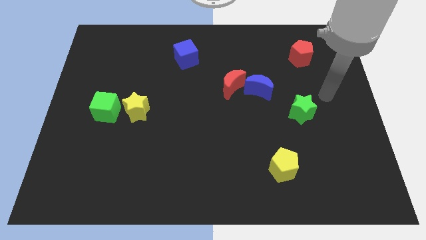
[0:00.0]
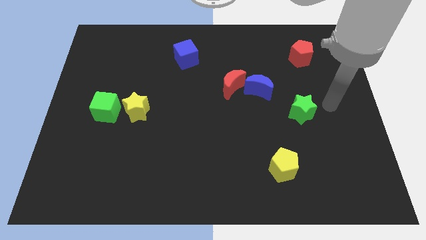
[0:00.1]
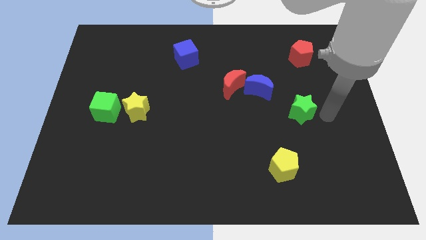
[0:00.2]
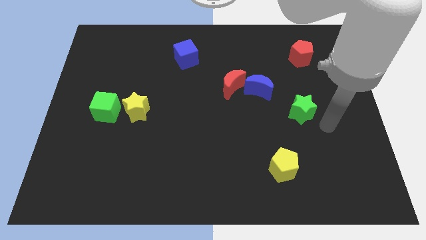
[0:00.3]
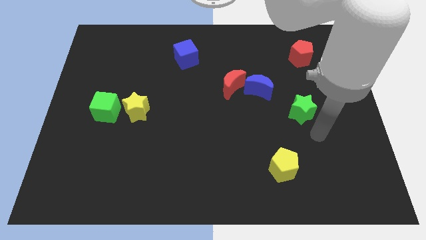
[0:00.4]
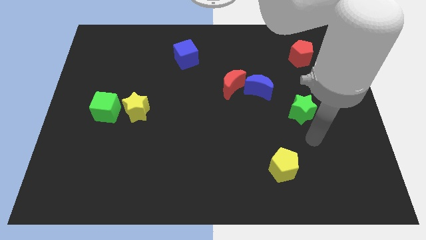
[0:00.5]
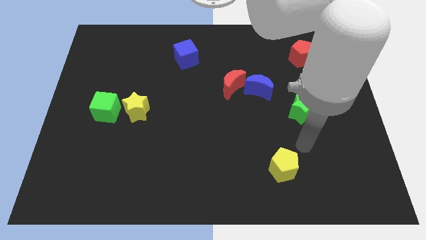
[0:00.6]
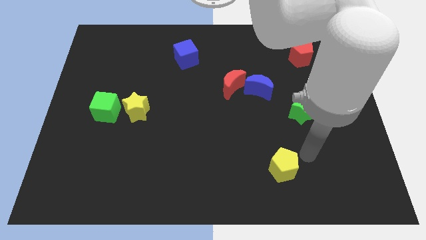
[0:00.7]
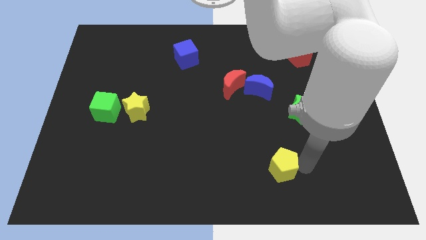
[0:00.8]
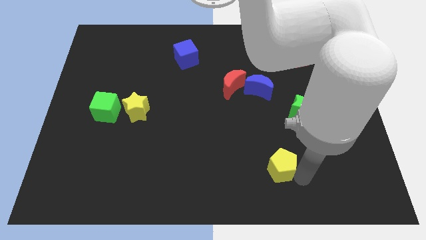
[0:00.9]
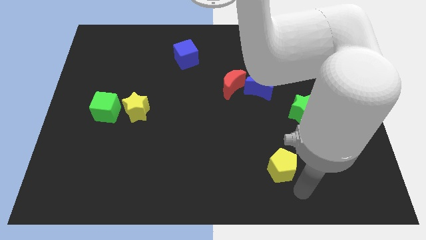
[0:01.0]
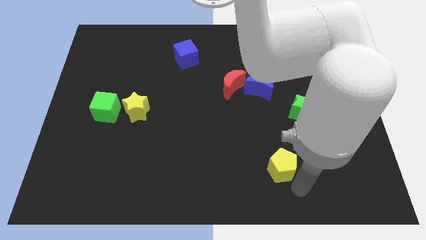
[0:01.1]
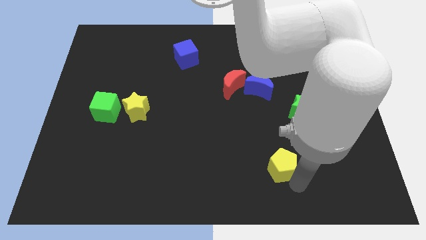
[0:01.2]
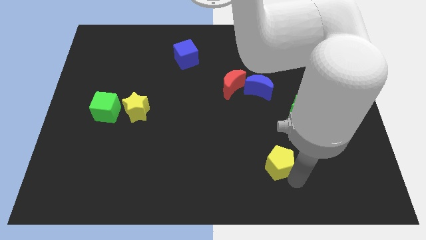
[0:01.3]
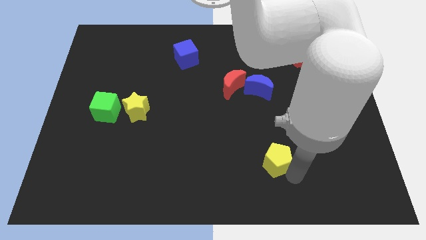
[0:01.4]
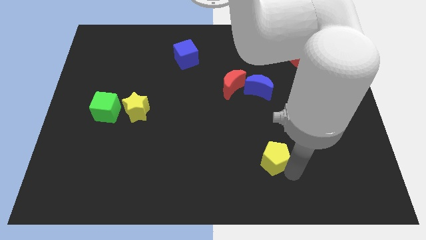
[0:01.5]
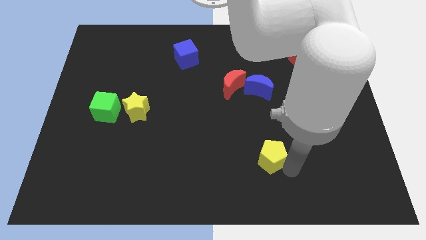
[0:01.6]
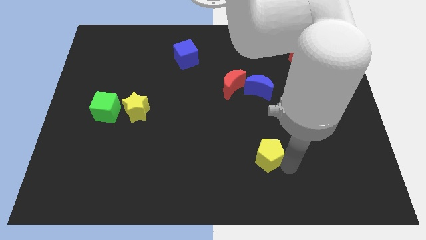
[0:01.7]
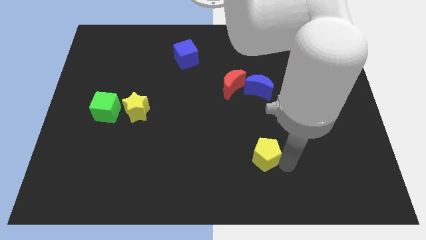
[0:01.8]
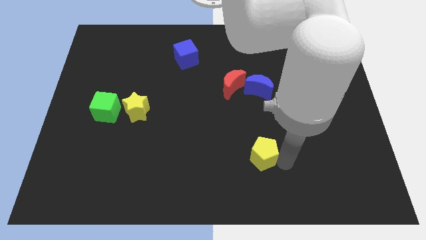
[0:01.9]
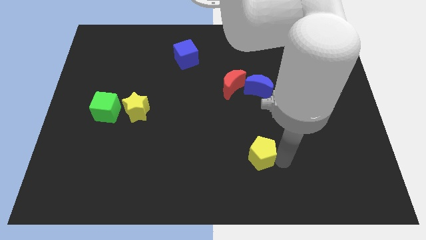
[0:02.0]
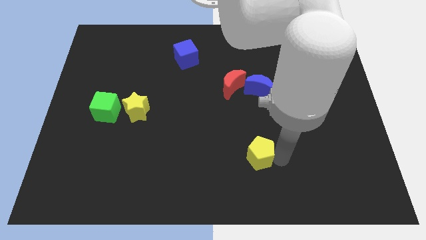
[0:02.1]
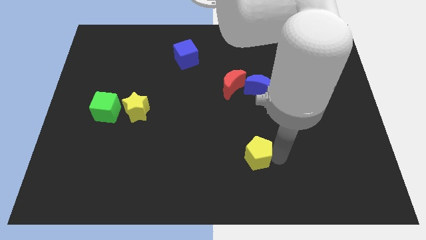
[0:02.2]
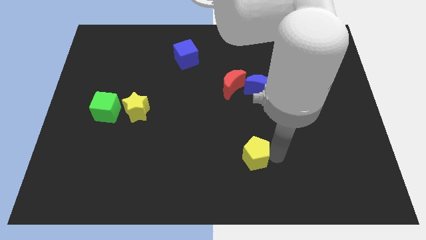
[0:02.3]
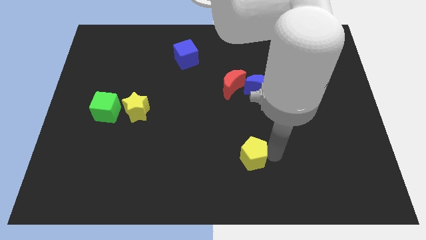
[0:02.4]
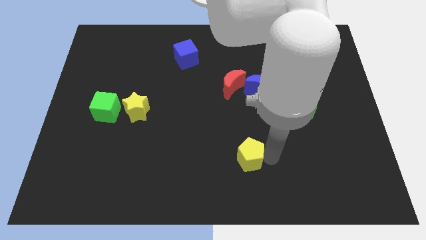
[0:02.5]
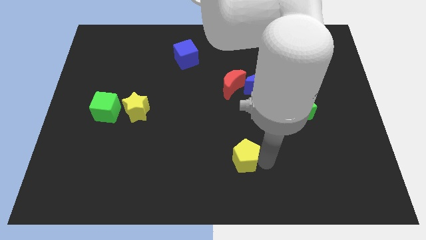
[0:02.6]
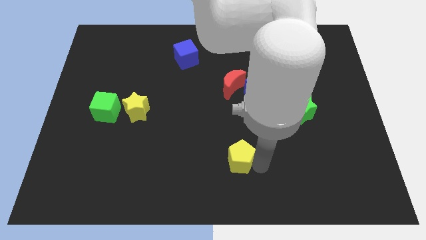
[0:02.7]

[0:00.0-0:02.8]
slightly move the yellow pentagon upwards and left diagonally

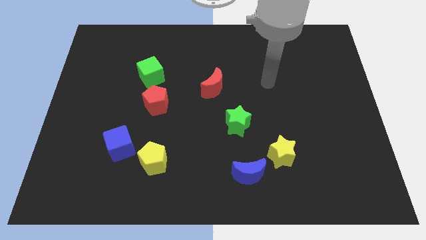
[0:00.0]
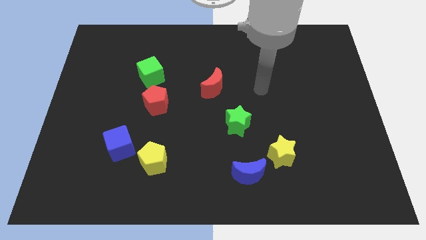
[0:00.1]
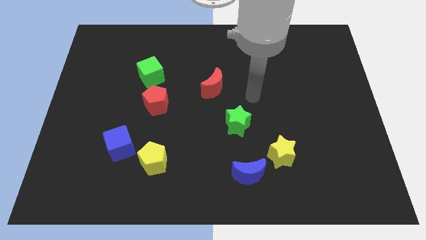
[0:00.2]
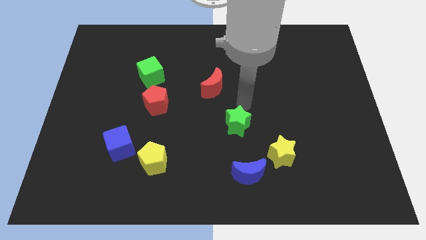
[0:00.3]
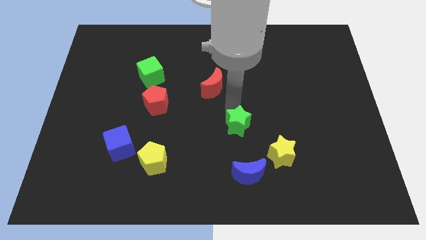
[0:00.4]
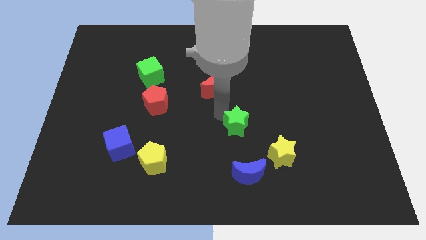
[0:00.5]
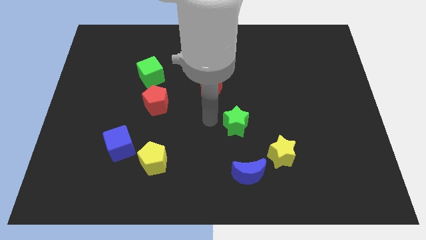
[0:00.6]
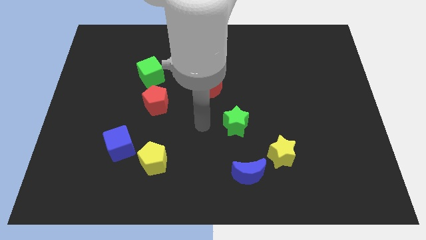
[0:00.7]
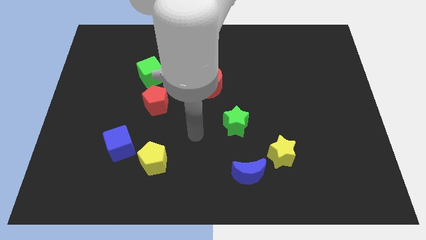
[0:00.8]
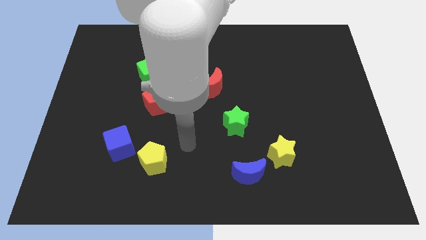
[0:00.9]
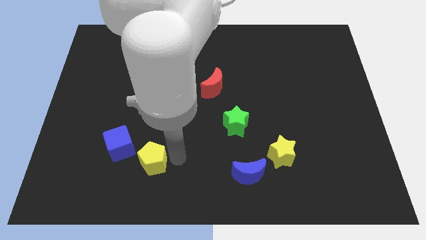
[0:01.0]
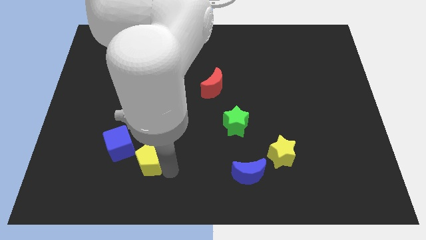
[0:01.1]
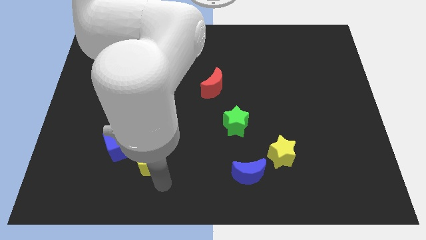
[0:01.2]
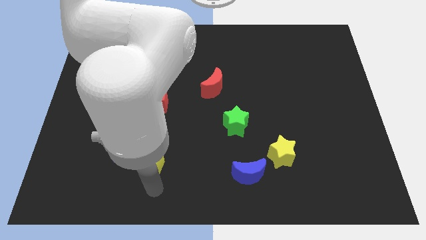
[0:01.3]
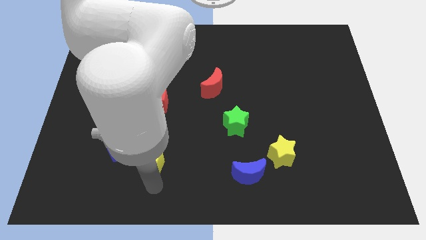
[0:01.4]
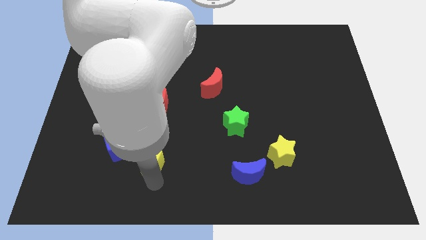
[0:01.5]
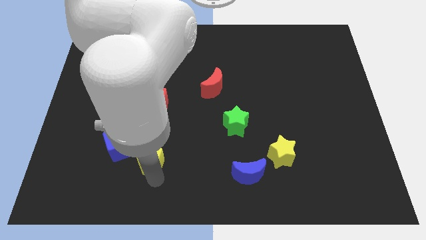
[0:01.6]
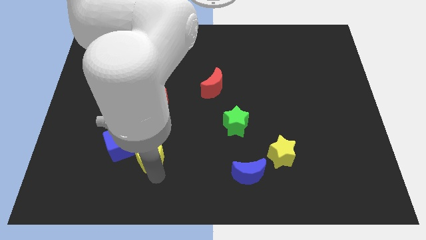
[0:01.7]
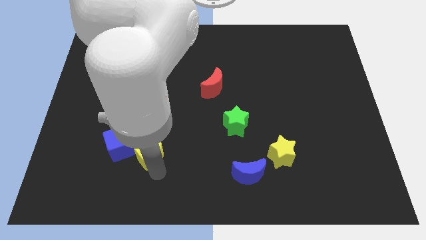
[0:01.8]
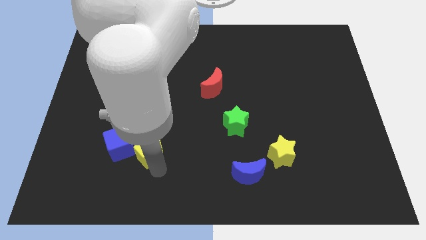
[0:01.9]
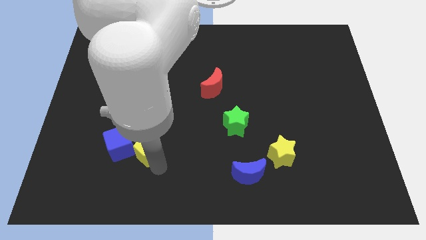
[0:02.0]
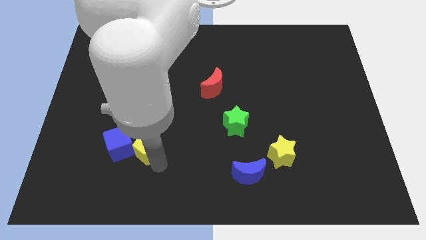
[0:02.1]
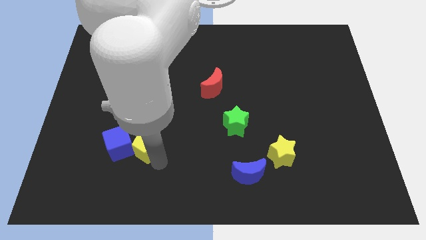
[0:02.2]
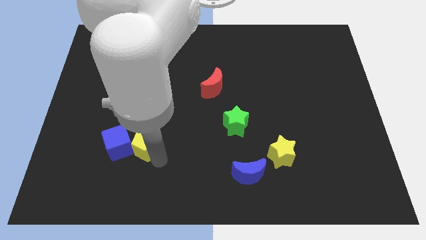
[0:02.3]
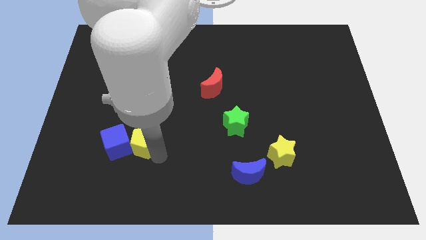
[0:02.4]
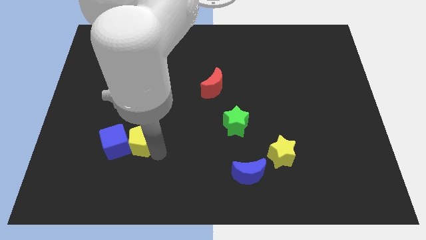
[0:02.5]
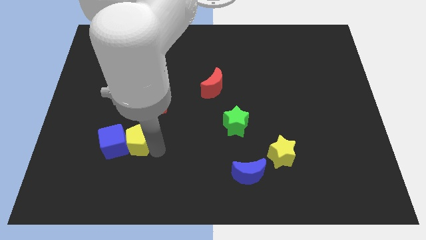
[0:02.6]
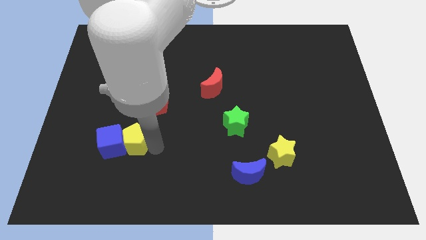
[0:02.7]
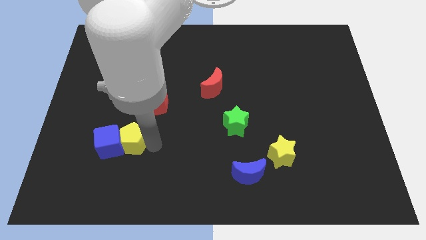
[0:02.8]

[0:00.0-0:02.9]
move the yellow pentagon a little upwards and left

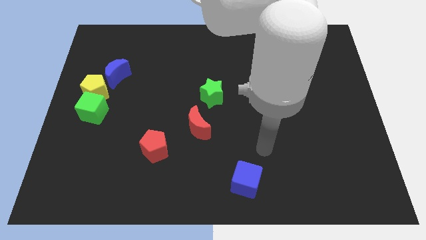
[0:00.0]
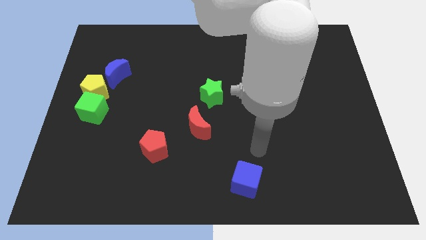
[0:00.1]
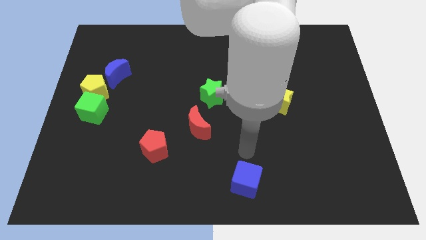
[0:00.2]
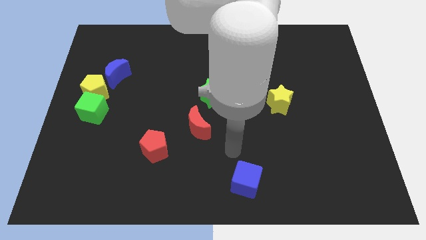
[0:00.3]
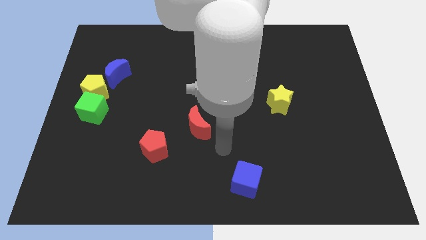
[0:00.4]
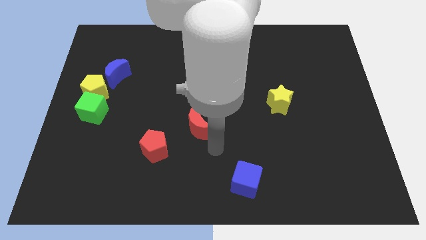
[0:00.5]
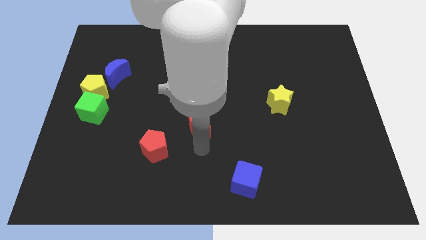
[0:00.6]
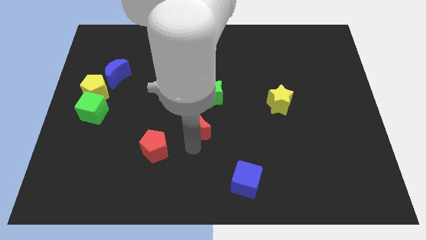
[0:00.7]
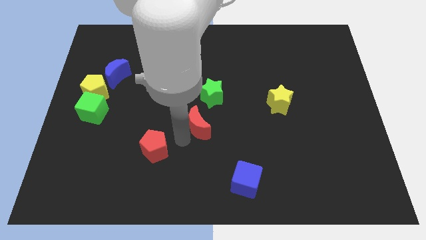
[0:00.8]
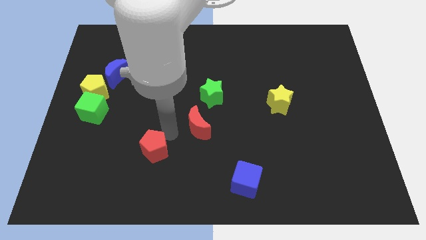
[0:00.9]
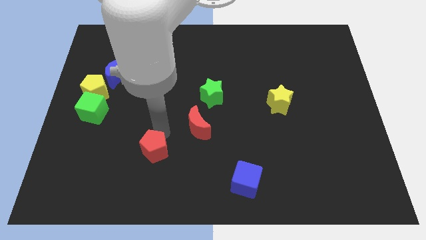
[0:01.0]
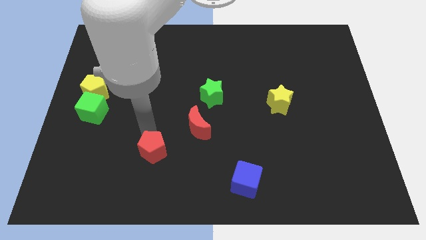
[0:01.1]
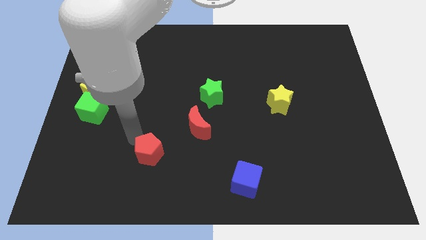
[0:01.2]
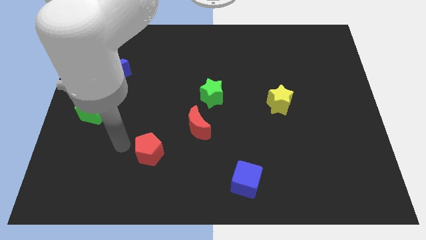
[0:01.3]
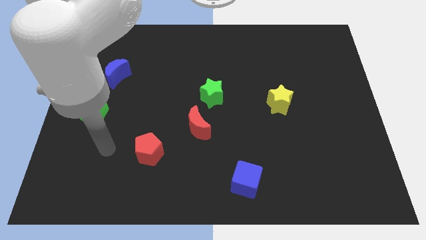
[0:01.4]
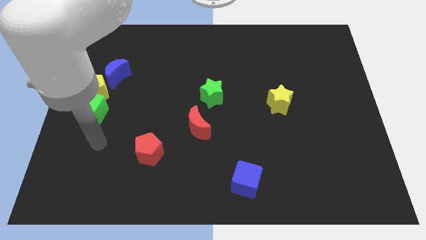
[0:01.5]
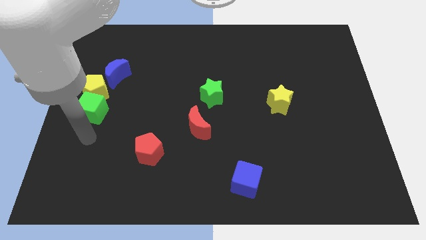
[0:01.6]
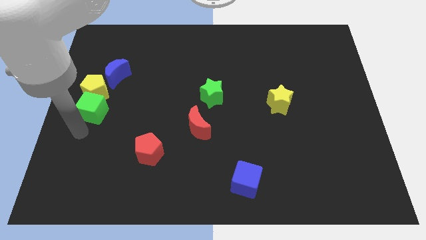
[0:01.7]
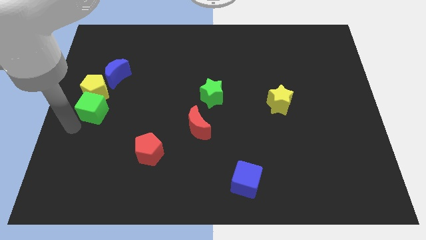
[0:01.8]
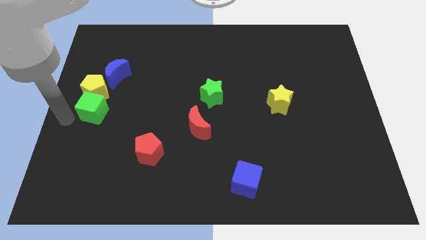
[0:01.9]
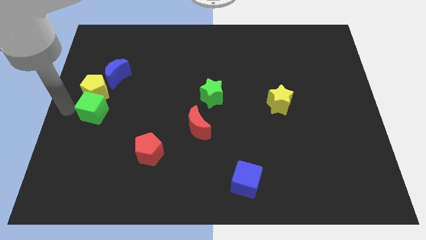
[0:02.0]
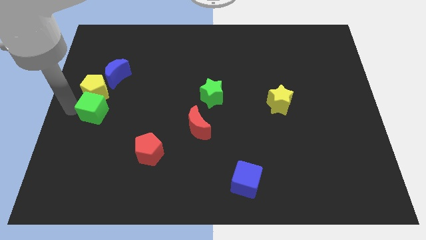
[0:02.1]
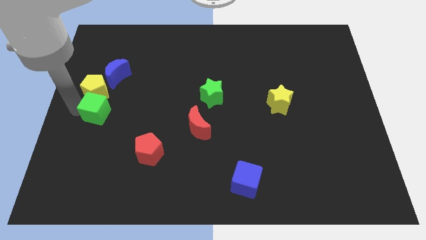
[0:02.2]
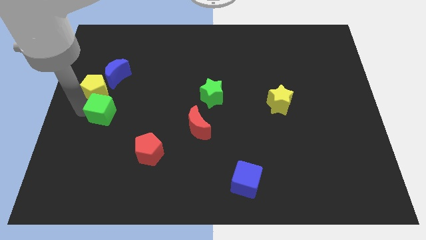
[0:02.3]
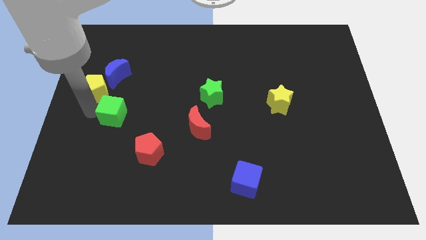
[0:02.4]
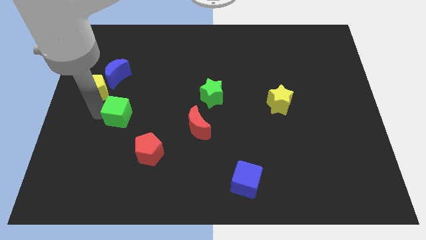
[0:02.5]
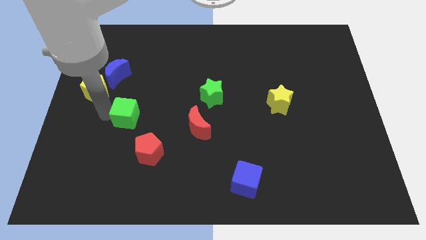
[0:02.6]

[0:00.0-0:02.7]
push the green cube to the right slightly
